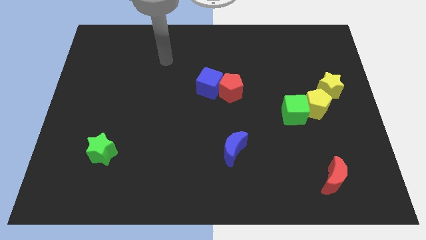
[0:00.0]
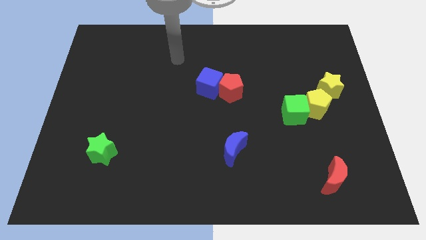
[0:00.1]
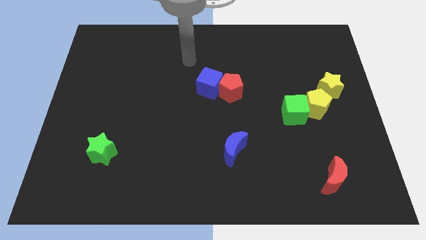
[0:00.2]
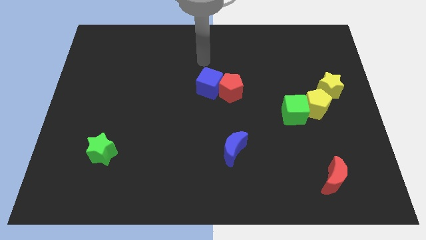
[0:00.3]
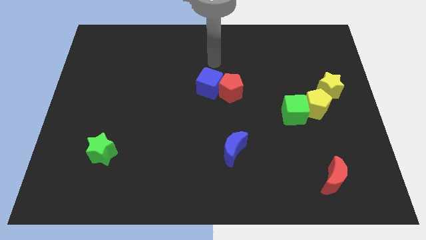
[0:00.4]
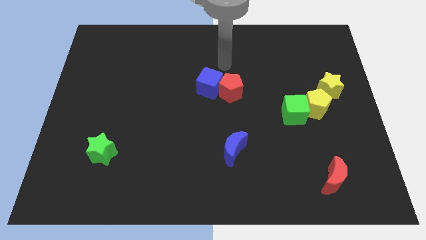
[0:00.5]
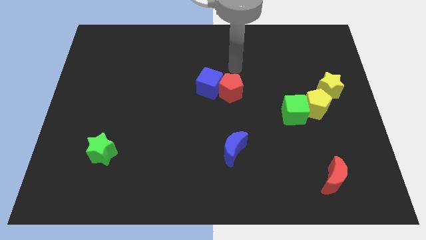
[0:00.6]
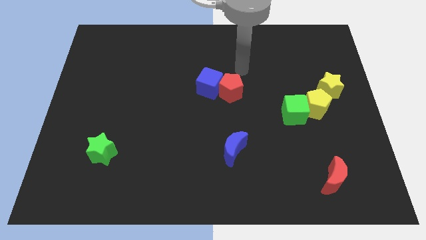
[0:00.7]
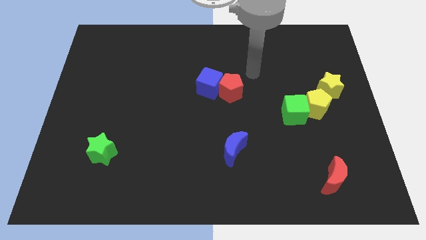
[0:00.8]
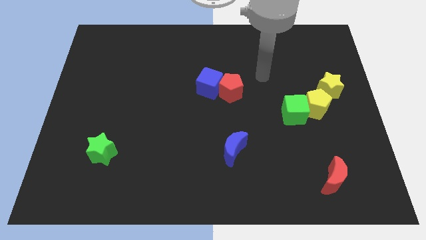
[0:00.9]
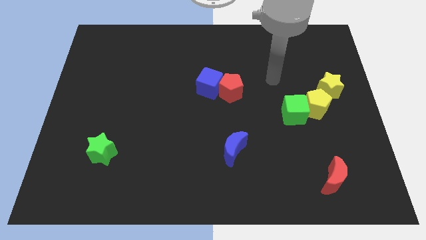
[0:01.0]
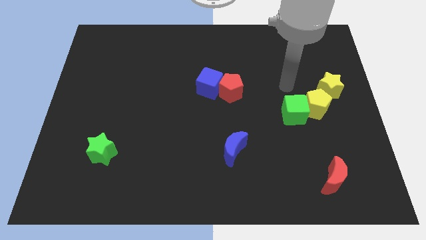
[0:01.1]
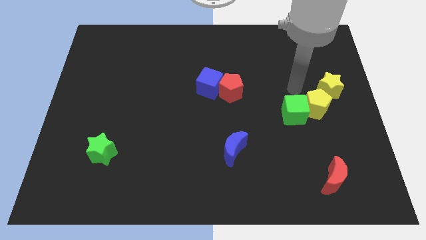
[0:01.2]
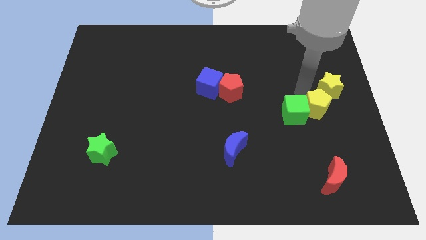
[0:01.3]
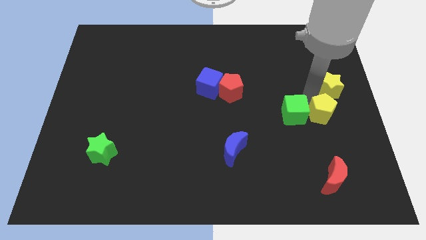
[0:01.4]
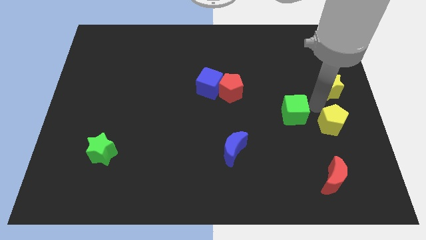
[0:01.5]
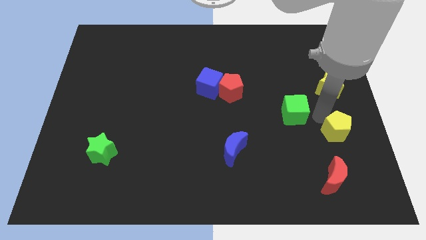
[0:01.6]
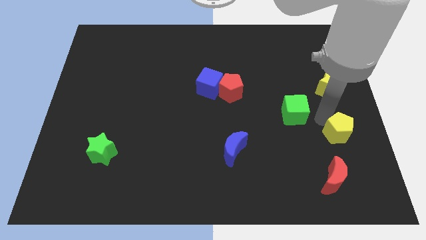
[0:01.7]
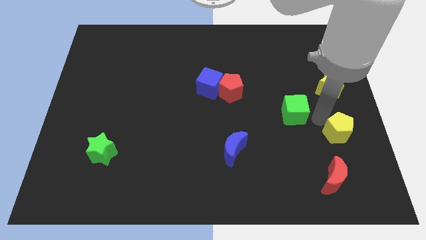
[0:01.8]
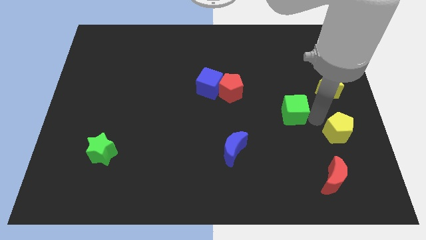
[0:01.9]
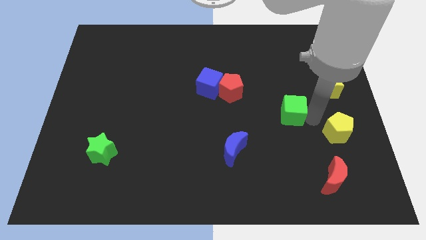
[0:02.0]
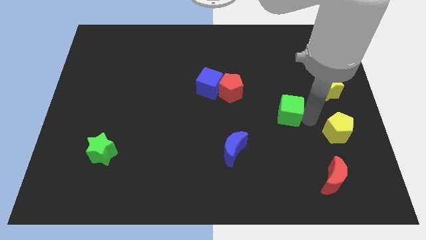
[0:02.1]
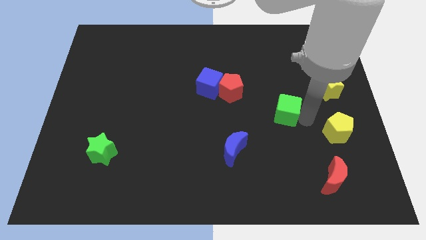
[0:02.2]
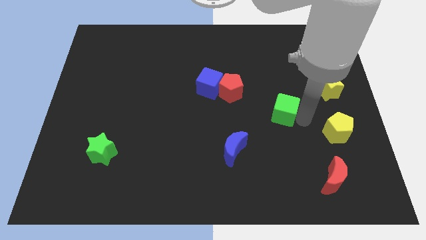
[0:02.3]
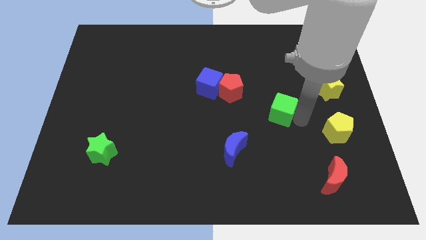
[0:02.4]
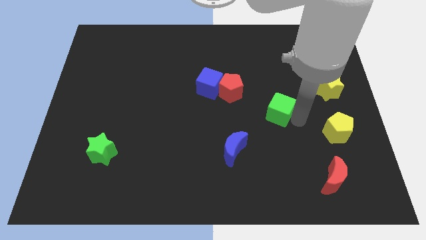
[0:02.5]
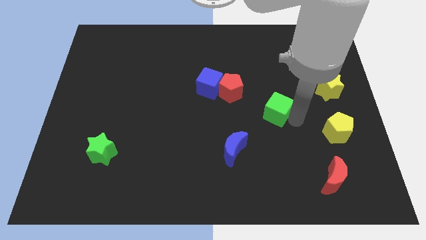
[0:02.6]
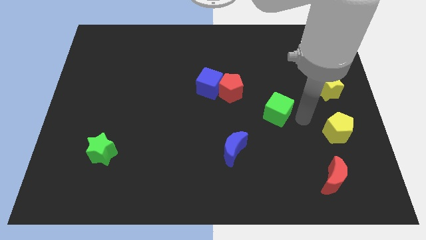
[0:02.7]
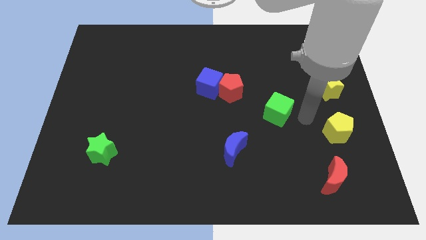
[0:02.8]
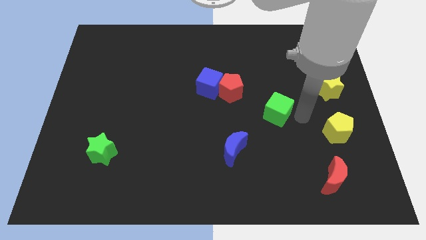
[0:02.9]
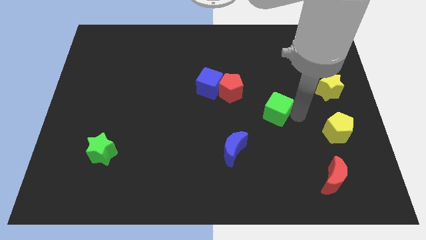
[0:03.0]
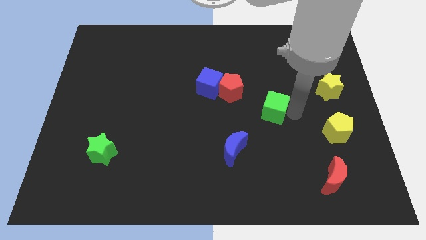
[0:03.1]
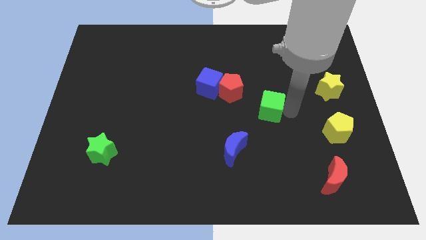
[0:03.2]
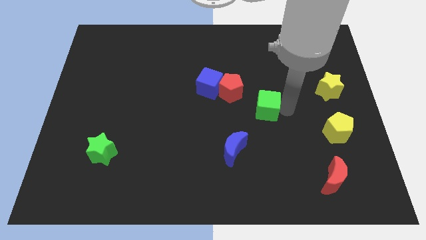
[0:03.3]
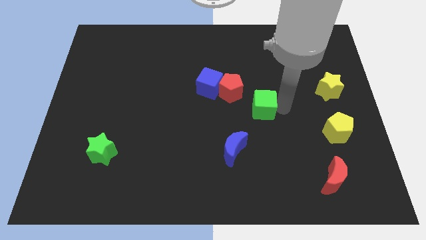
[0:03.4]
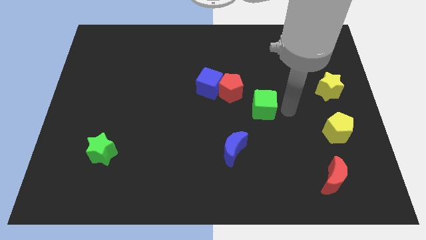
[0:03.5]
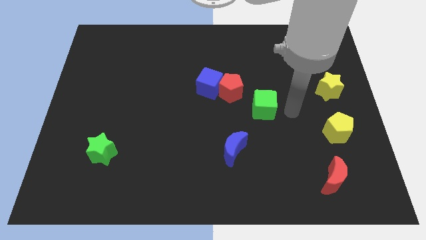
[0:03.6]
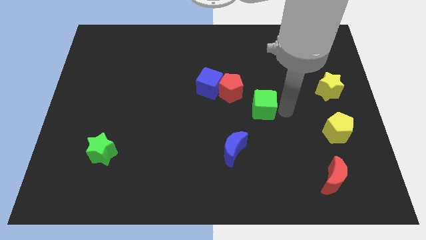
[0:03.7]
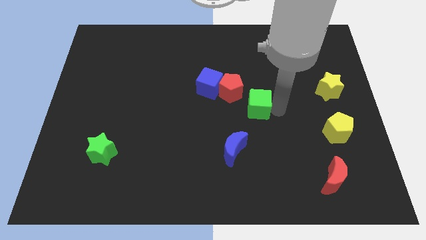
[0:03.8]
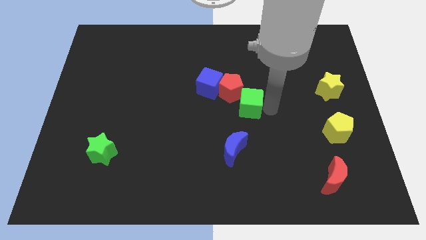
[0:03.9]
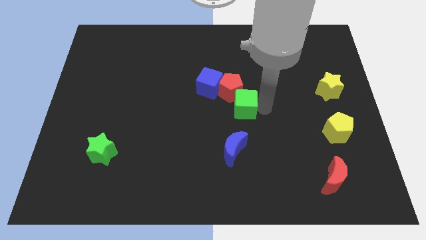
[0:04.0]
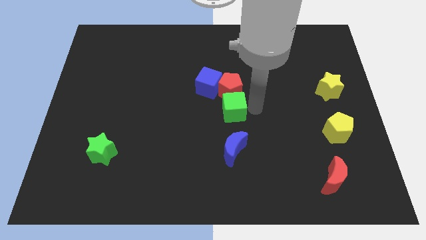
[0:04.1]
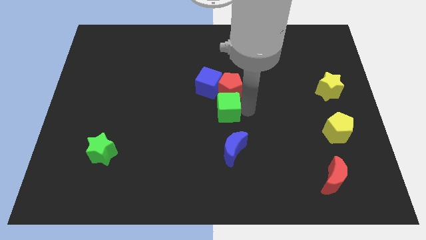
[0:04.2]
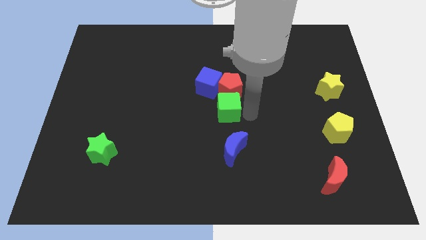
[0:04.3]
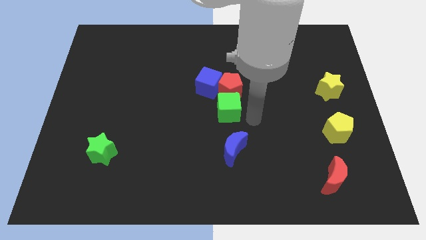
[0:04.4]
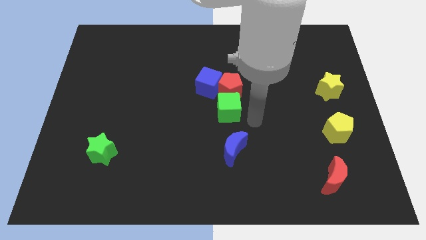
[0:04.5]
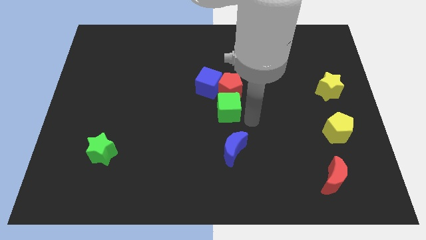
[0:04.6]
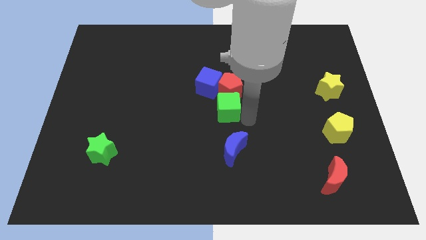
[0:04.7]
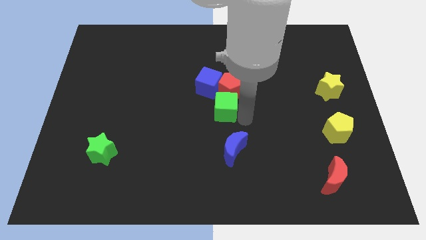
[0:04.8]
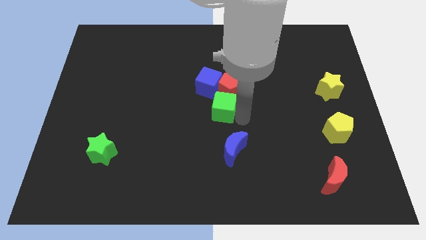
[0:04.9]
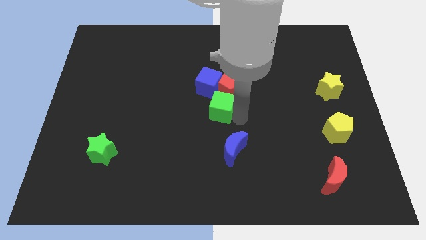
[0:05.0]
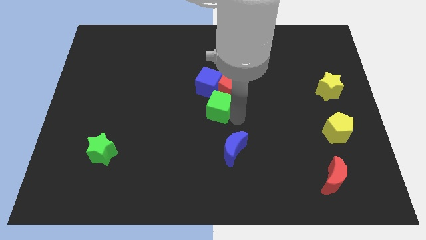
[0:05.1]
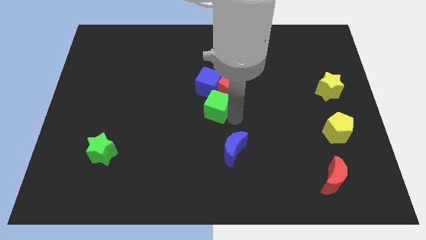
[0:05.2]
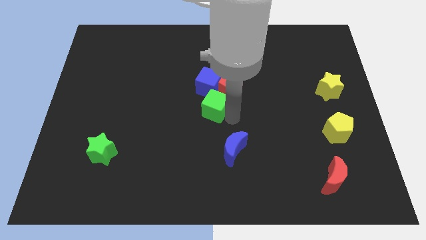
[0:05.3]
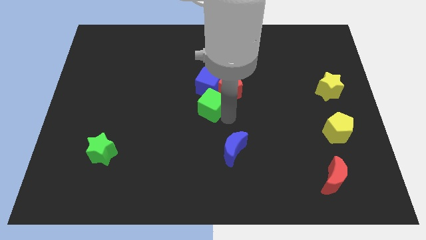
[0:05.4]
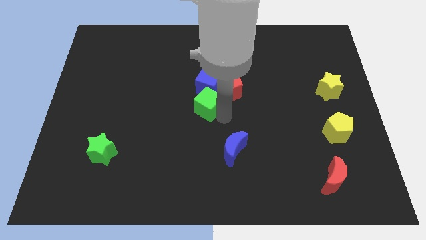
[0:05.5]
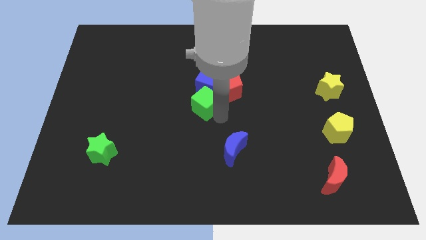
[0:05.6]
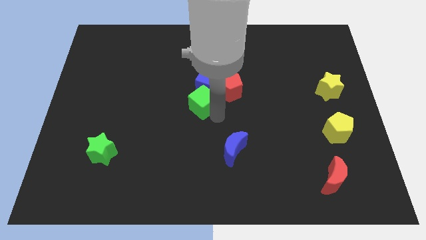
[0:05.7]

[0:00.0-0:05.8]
put the green cube left of the red pentagon

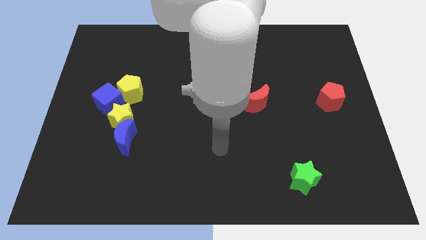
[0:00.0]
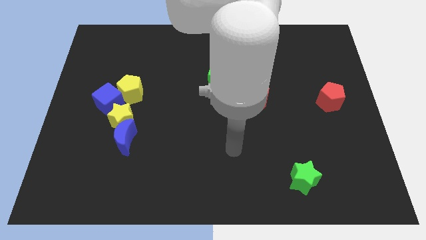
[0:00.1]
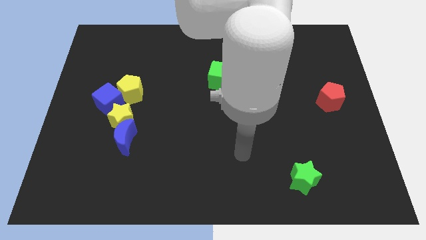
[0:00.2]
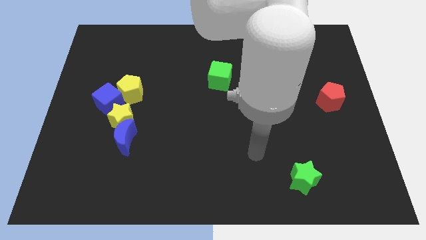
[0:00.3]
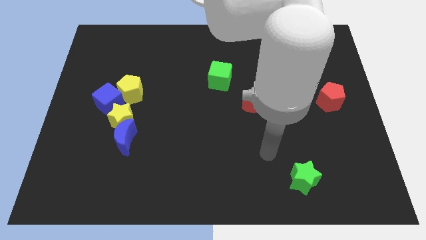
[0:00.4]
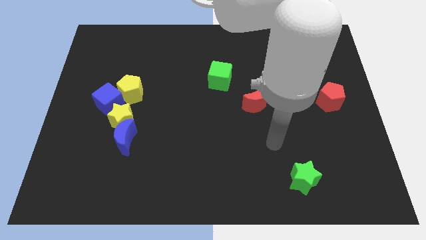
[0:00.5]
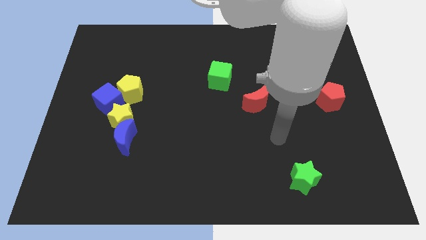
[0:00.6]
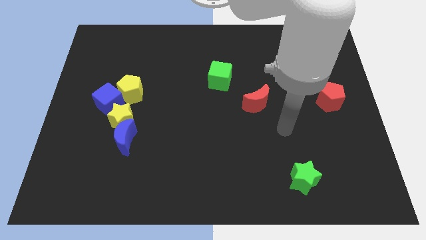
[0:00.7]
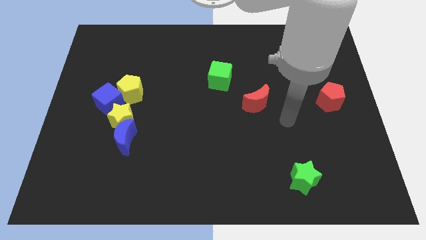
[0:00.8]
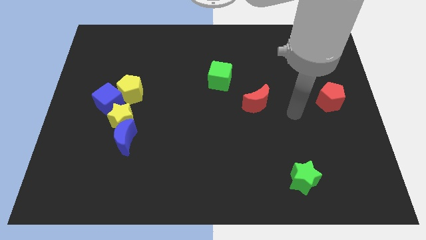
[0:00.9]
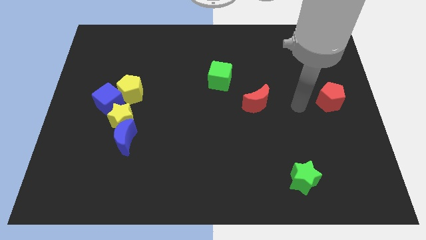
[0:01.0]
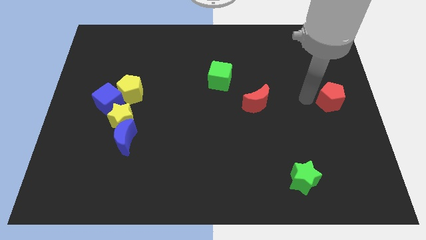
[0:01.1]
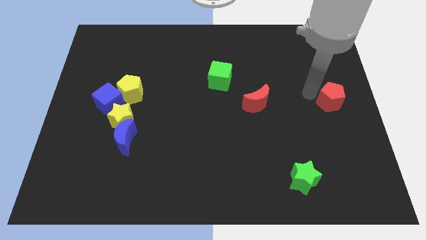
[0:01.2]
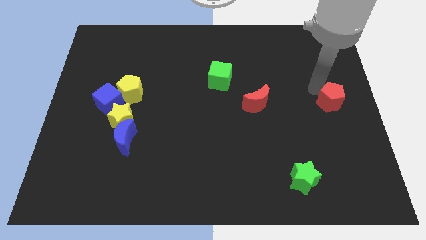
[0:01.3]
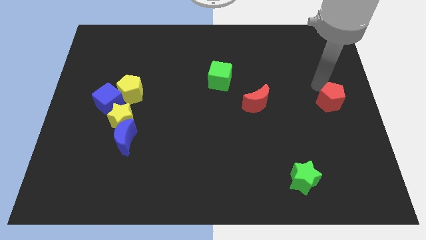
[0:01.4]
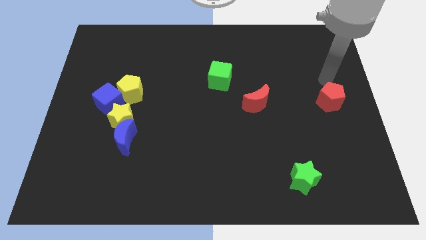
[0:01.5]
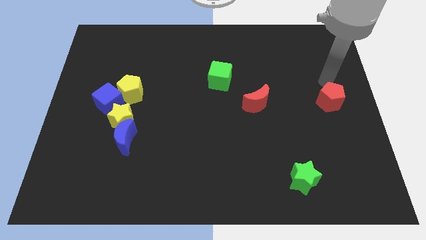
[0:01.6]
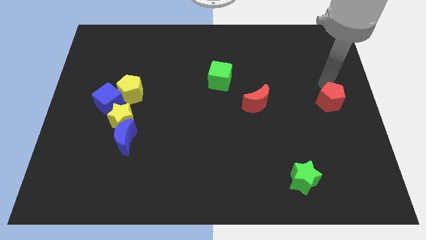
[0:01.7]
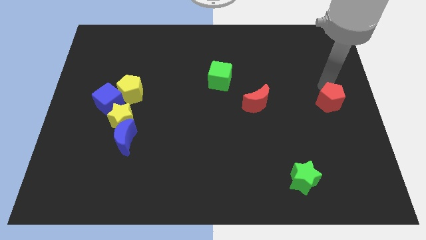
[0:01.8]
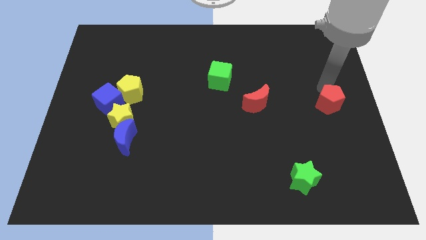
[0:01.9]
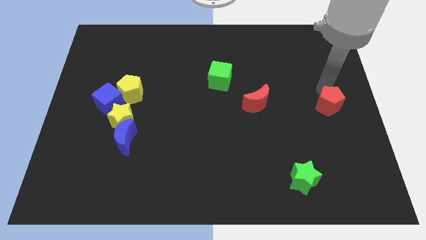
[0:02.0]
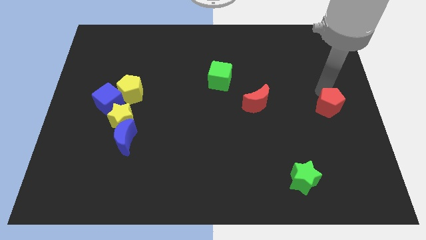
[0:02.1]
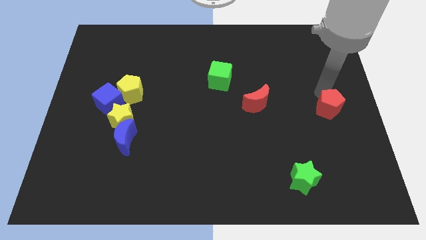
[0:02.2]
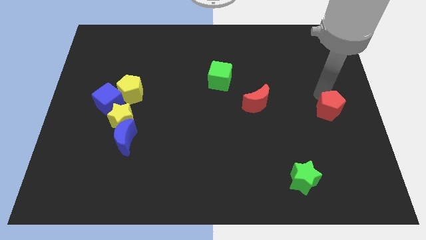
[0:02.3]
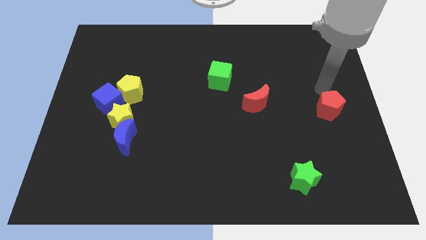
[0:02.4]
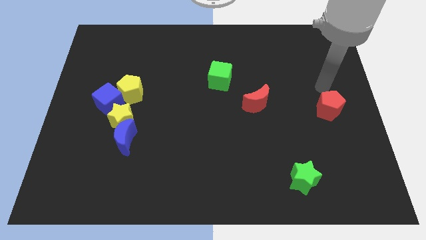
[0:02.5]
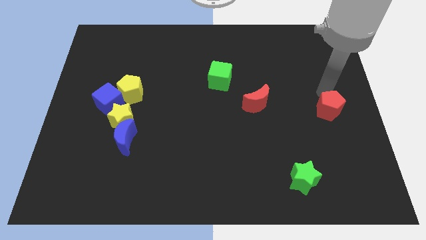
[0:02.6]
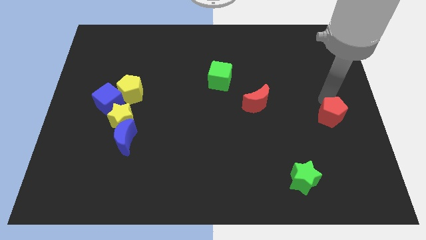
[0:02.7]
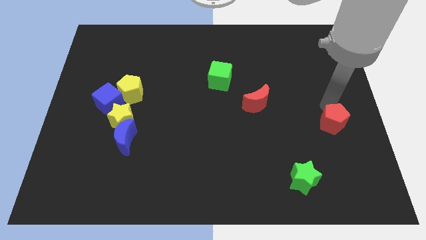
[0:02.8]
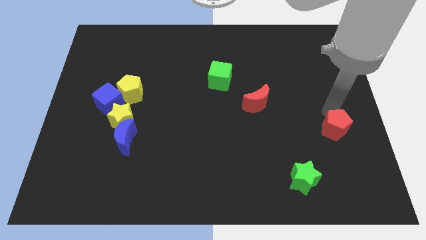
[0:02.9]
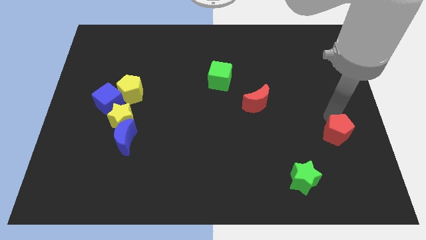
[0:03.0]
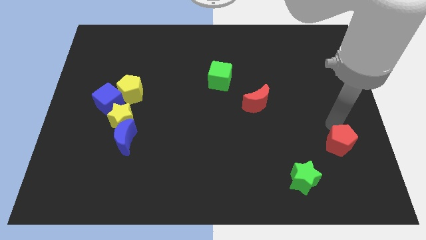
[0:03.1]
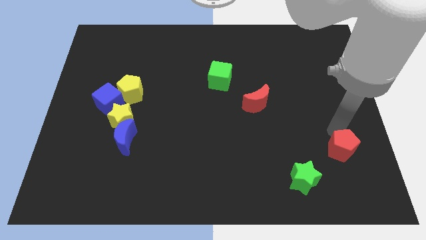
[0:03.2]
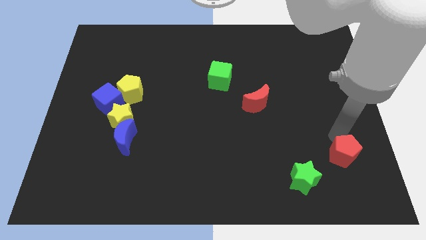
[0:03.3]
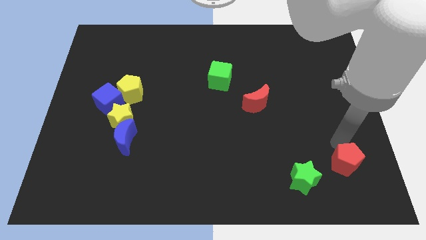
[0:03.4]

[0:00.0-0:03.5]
push the red pentagon to the right side of the green star
